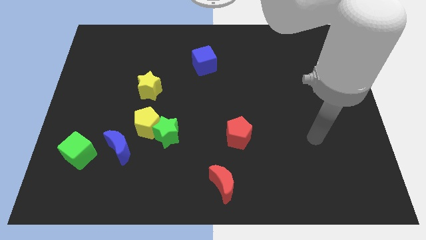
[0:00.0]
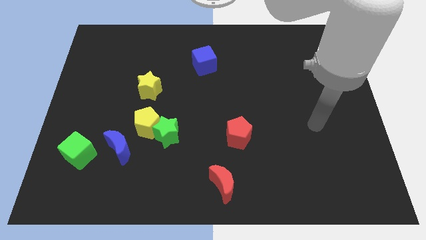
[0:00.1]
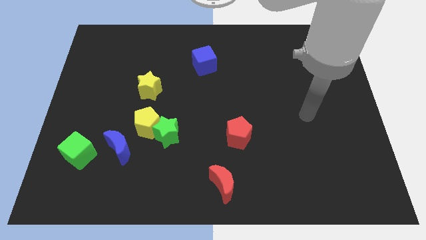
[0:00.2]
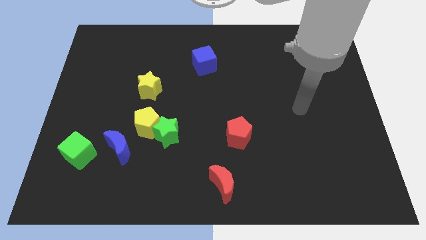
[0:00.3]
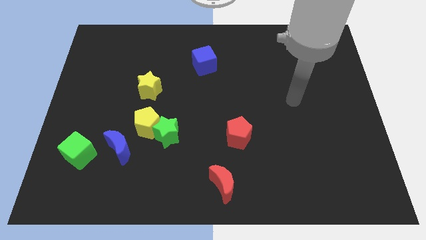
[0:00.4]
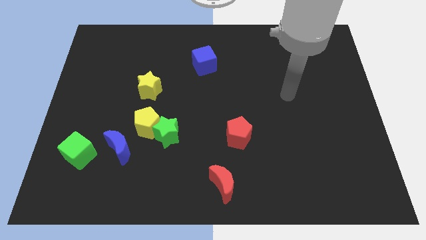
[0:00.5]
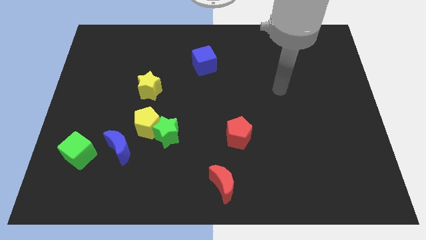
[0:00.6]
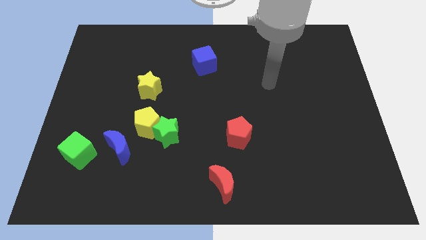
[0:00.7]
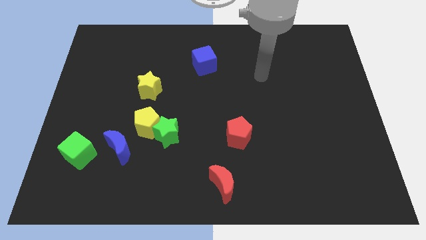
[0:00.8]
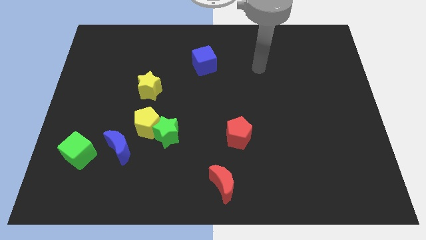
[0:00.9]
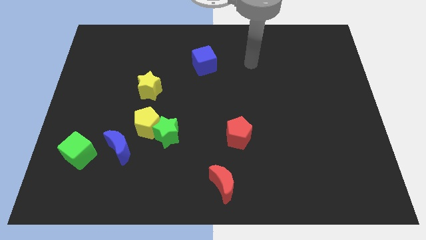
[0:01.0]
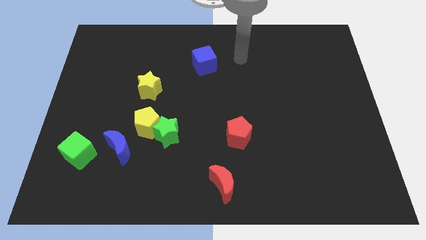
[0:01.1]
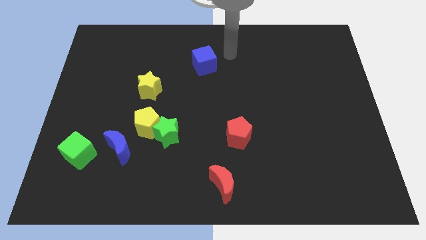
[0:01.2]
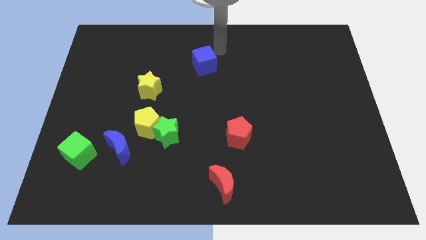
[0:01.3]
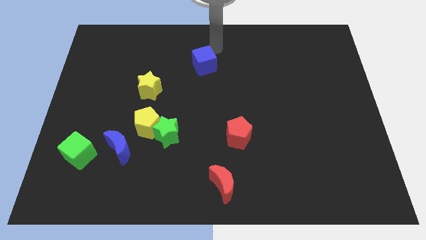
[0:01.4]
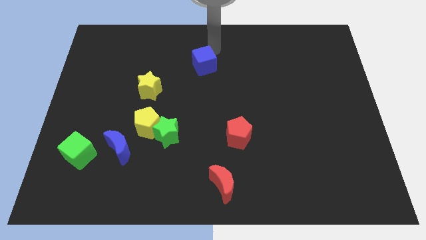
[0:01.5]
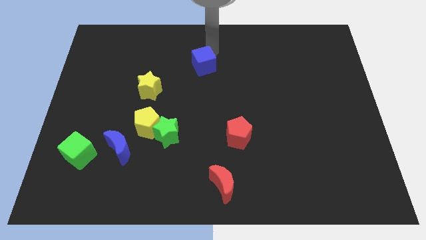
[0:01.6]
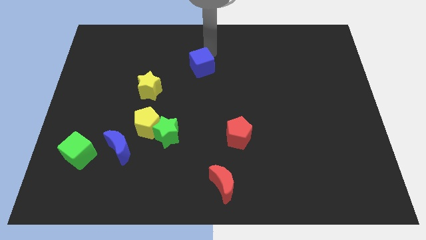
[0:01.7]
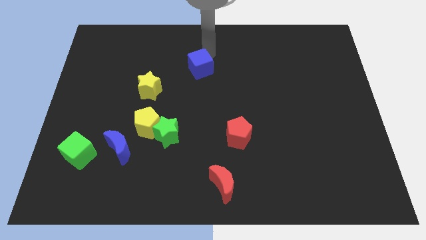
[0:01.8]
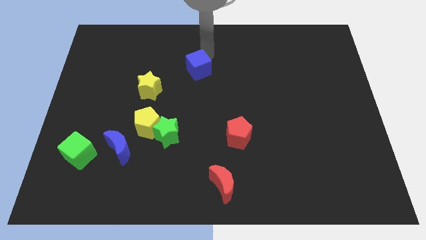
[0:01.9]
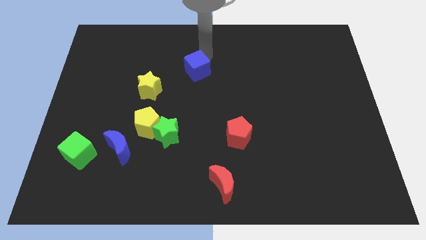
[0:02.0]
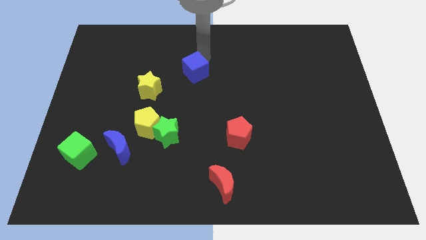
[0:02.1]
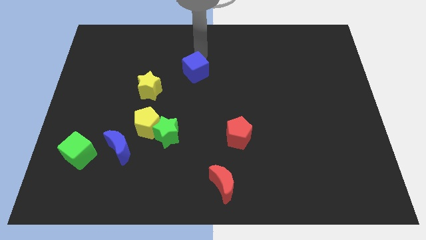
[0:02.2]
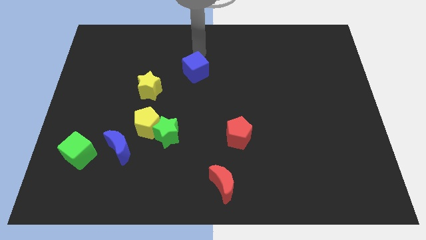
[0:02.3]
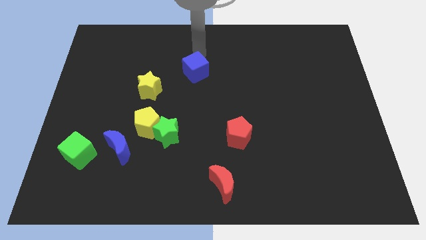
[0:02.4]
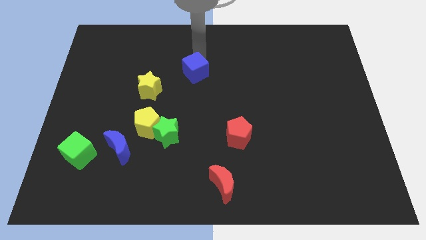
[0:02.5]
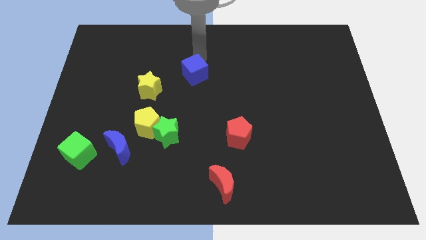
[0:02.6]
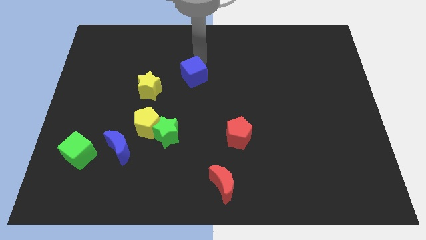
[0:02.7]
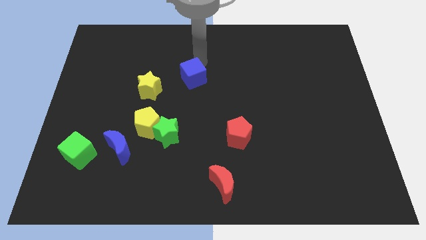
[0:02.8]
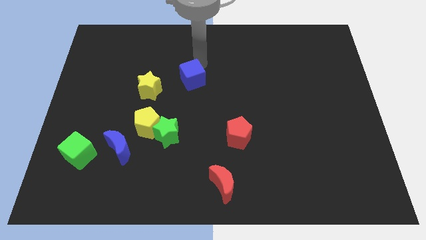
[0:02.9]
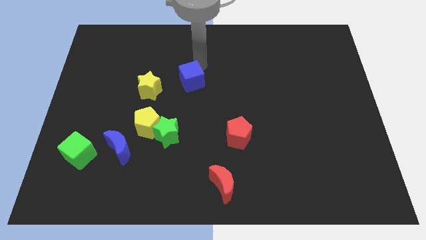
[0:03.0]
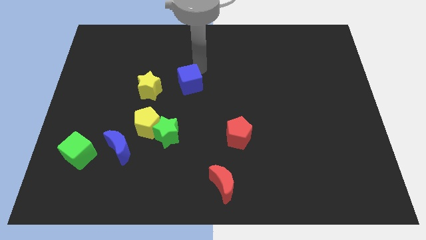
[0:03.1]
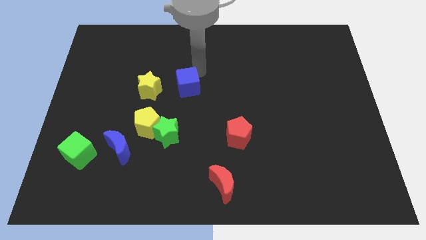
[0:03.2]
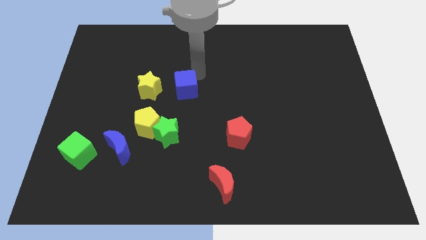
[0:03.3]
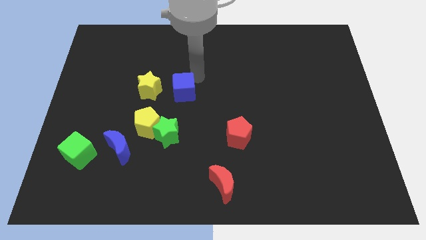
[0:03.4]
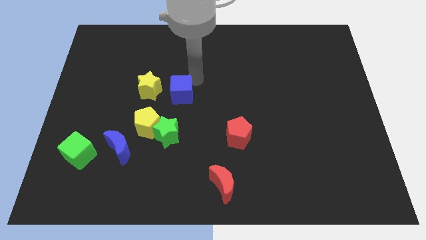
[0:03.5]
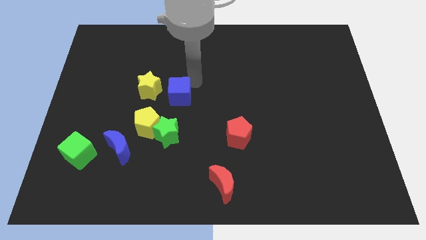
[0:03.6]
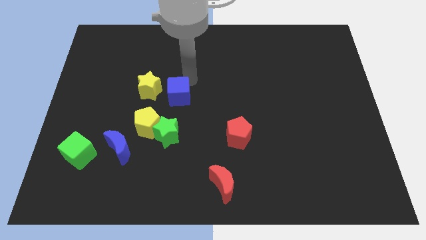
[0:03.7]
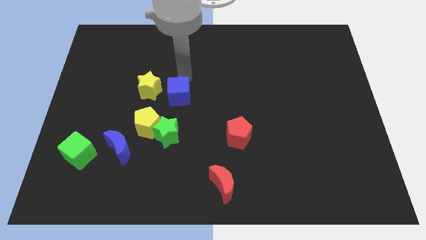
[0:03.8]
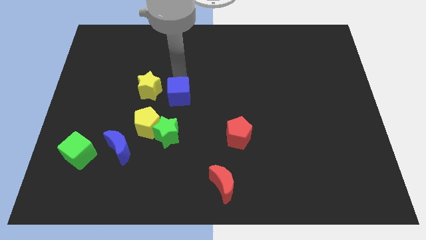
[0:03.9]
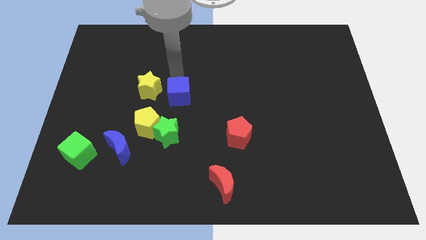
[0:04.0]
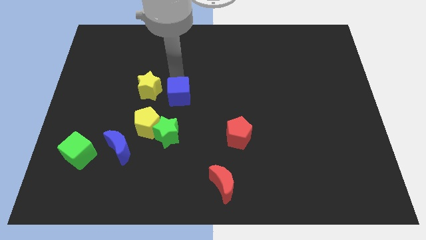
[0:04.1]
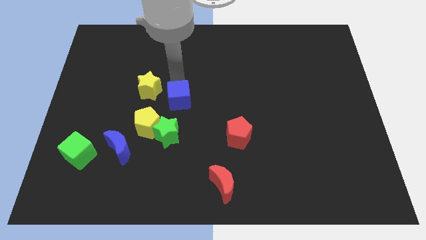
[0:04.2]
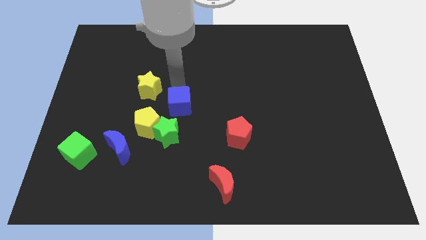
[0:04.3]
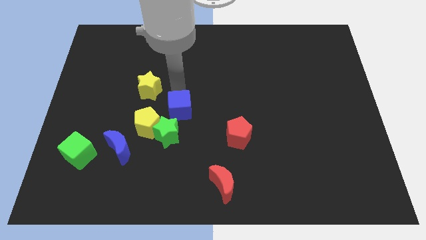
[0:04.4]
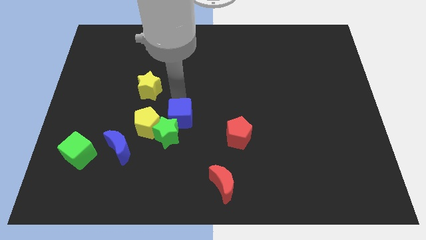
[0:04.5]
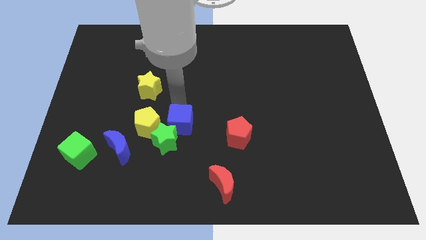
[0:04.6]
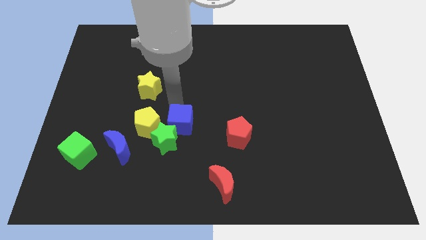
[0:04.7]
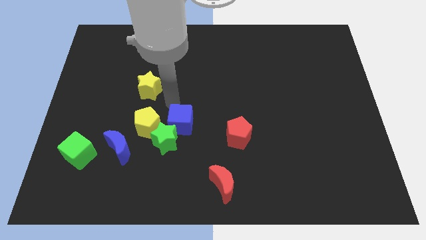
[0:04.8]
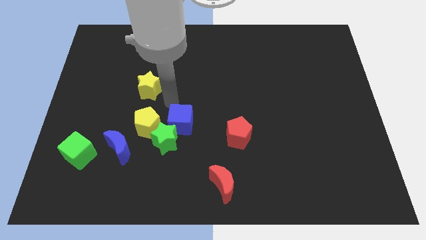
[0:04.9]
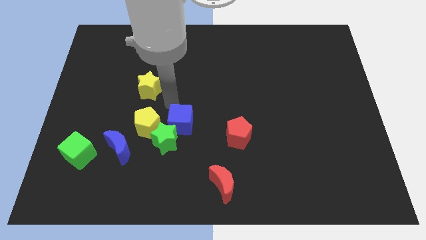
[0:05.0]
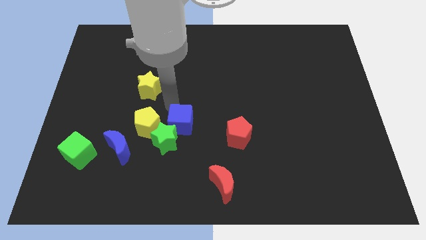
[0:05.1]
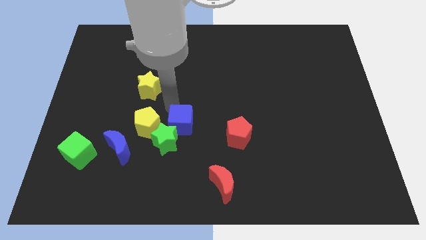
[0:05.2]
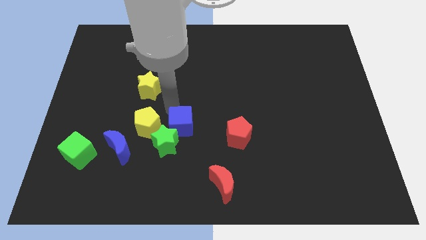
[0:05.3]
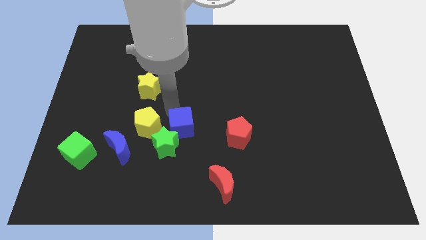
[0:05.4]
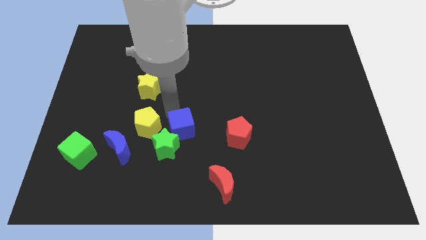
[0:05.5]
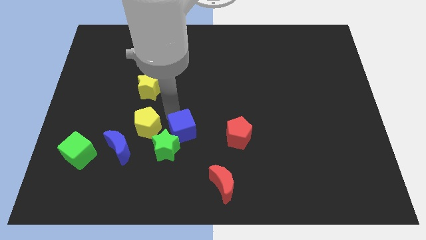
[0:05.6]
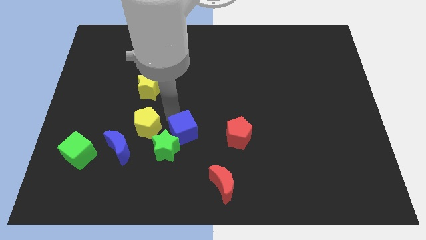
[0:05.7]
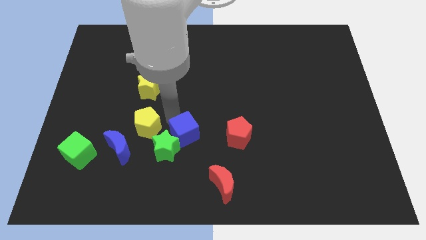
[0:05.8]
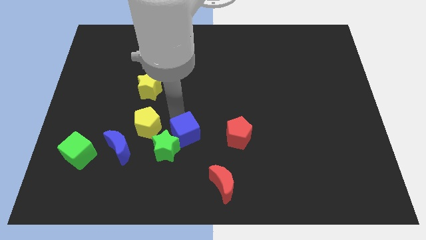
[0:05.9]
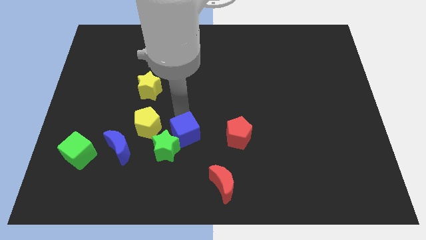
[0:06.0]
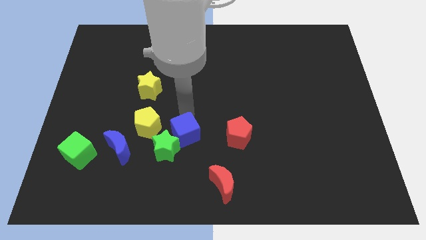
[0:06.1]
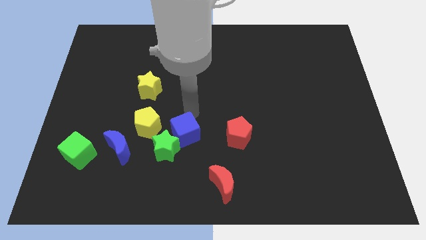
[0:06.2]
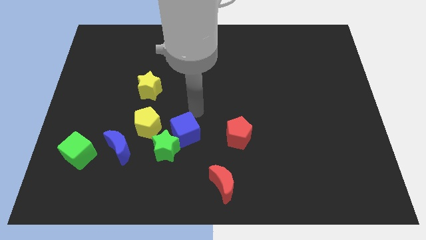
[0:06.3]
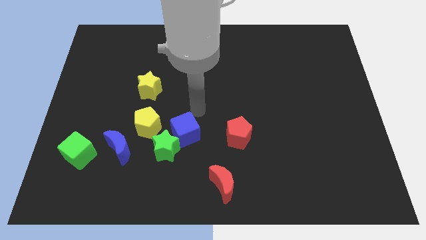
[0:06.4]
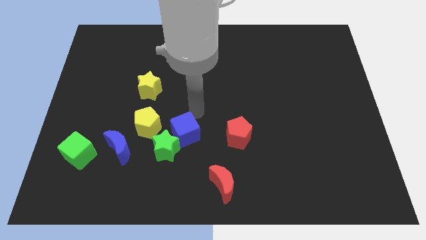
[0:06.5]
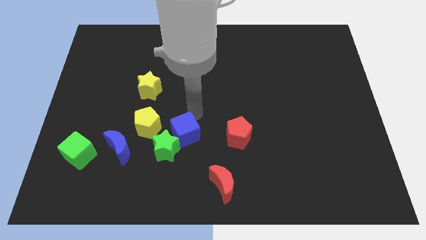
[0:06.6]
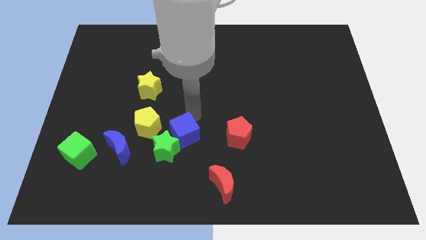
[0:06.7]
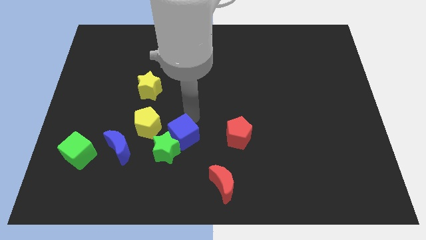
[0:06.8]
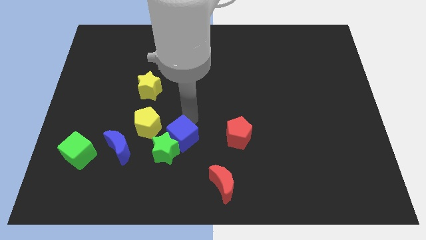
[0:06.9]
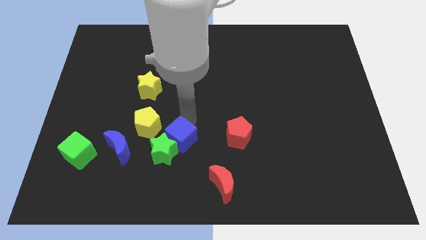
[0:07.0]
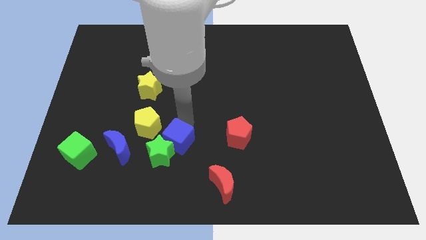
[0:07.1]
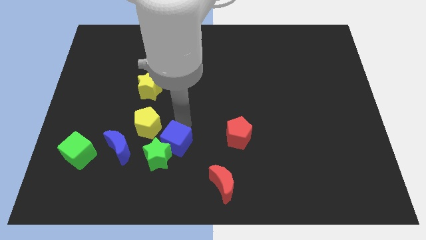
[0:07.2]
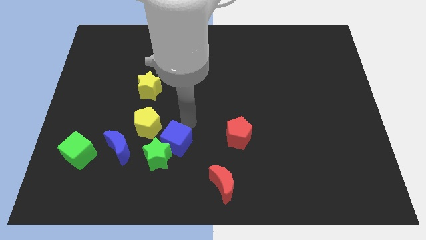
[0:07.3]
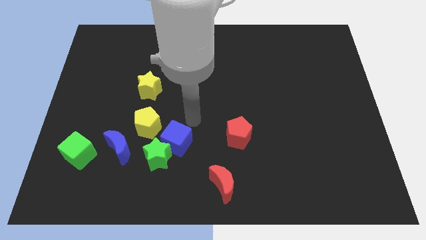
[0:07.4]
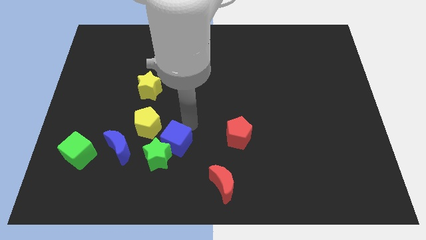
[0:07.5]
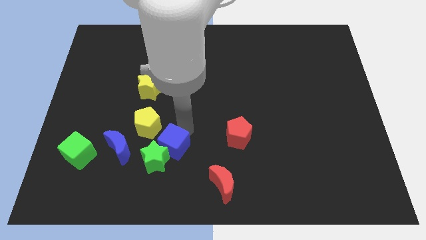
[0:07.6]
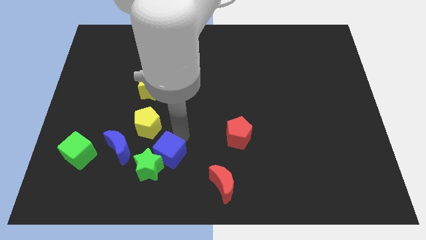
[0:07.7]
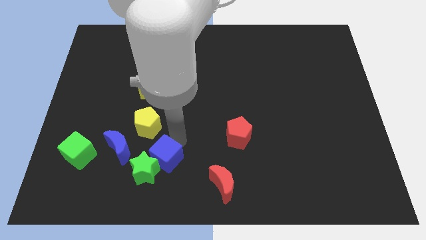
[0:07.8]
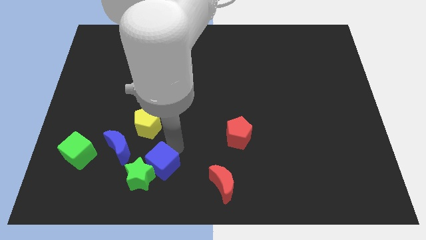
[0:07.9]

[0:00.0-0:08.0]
push the blue cube to the bottom right of the blue moon
